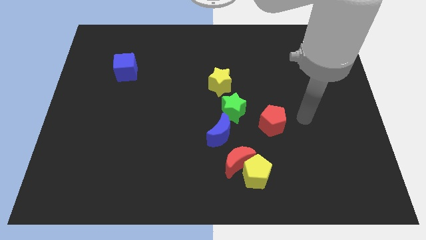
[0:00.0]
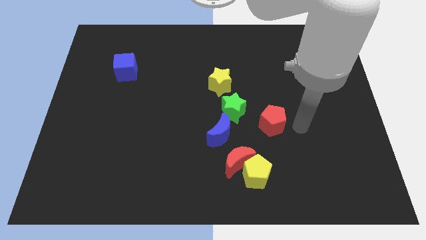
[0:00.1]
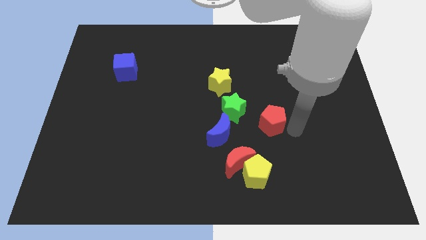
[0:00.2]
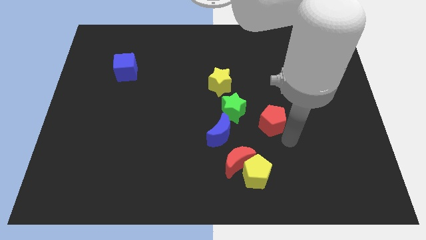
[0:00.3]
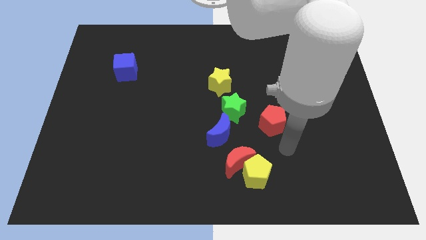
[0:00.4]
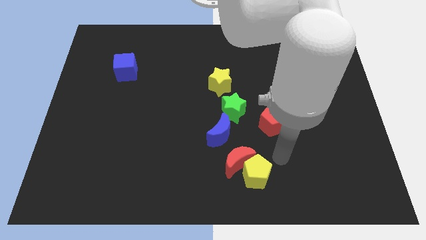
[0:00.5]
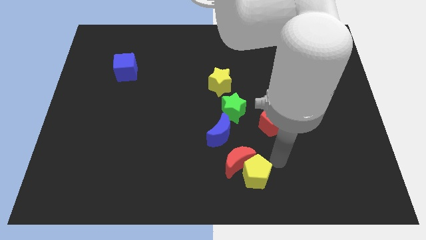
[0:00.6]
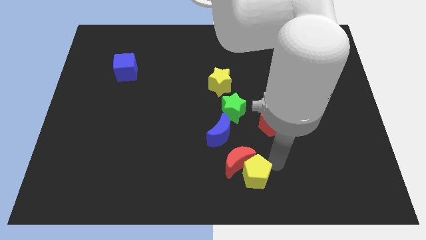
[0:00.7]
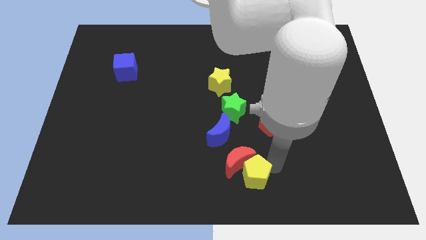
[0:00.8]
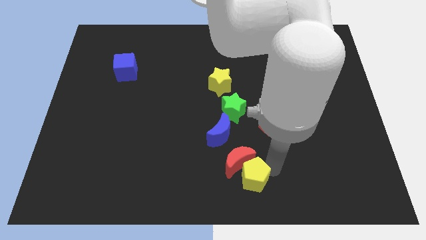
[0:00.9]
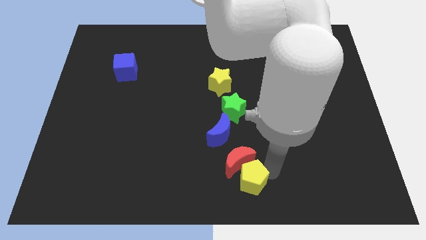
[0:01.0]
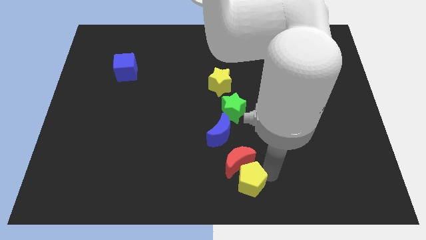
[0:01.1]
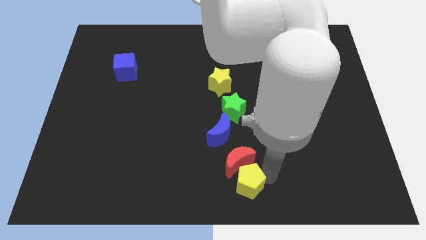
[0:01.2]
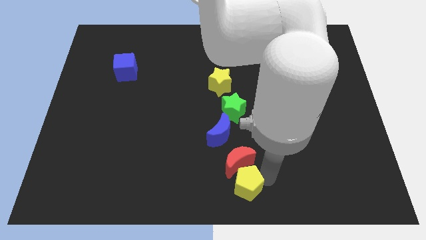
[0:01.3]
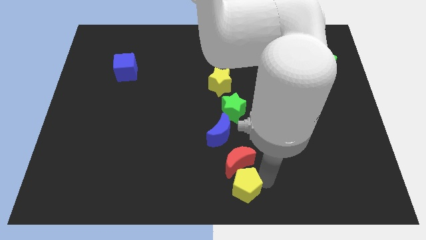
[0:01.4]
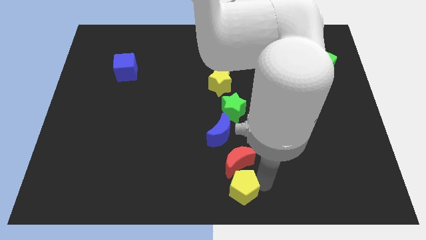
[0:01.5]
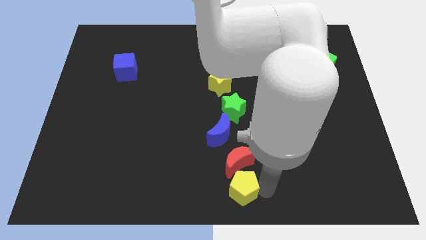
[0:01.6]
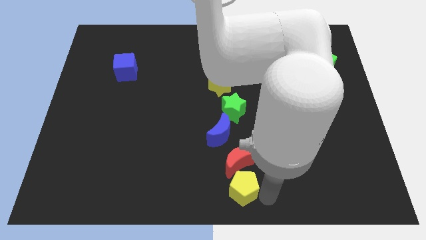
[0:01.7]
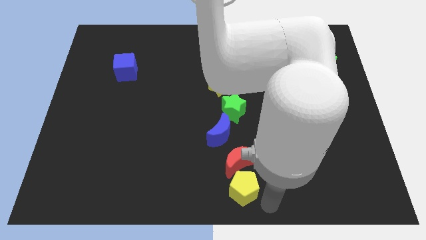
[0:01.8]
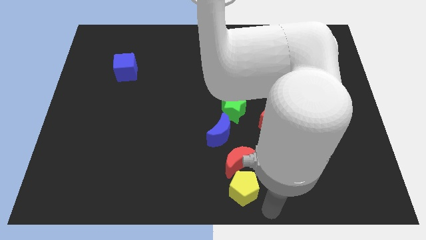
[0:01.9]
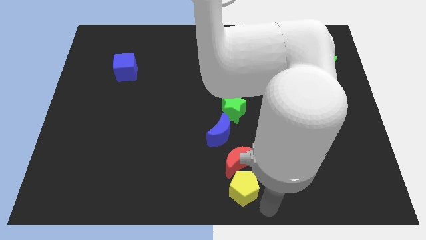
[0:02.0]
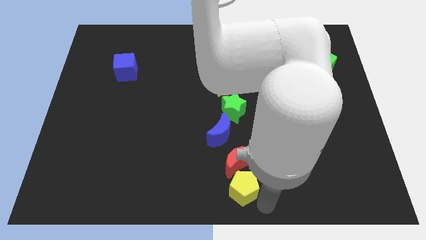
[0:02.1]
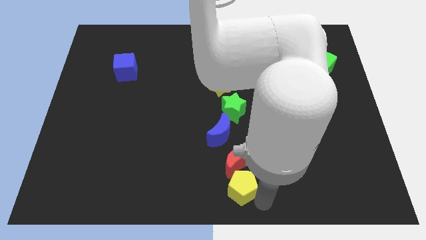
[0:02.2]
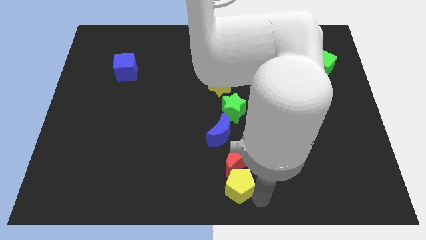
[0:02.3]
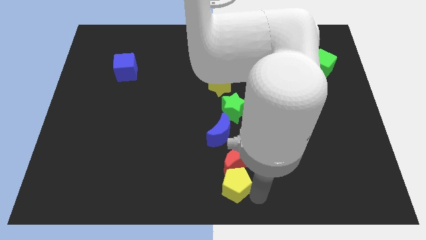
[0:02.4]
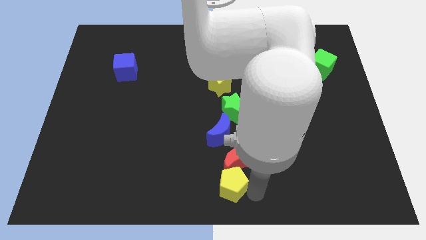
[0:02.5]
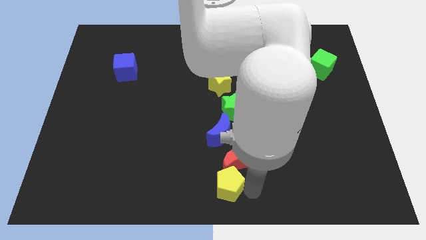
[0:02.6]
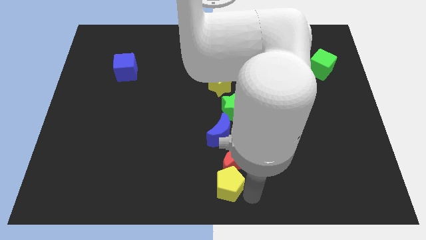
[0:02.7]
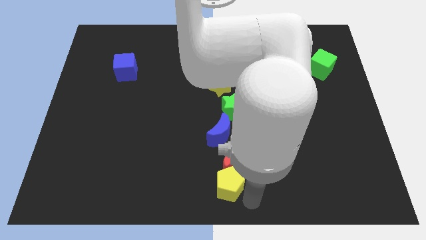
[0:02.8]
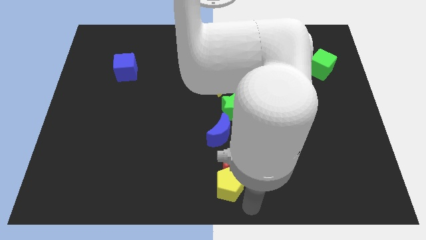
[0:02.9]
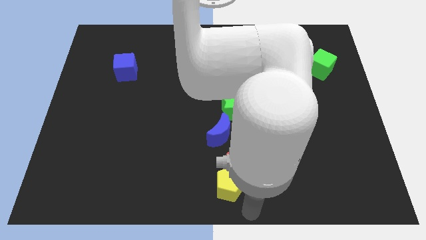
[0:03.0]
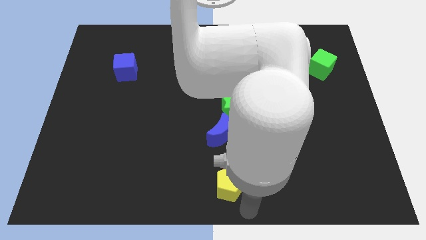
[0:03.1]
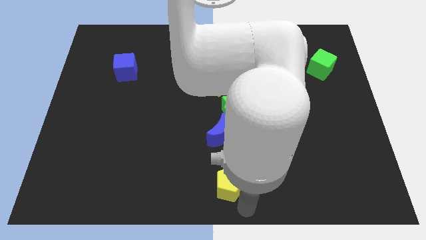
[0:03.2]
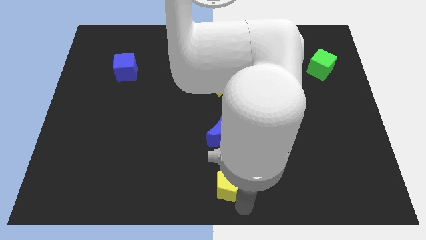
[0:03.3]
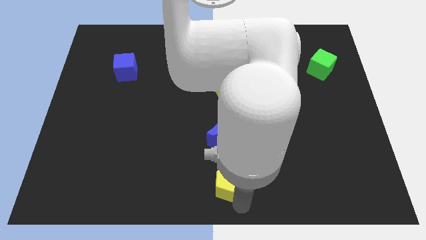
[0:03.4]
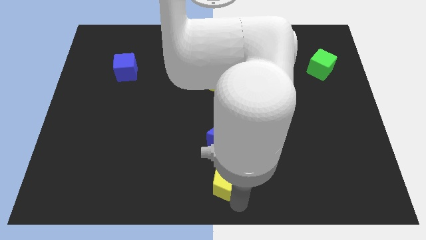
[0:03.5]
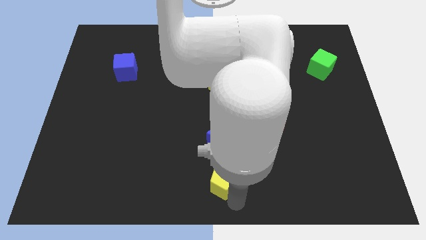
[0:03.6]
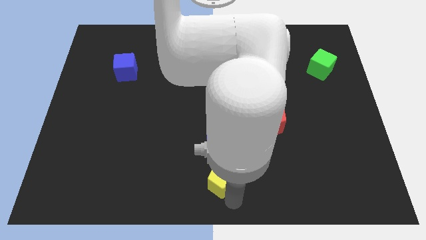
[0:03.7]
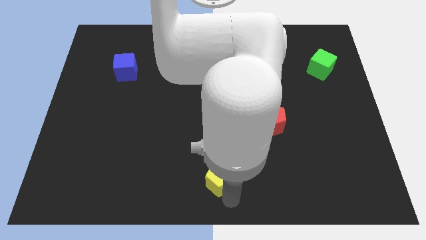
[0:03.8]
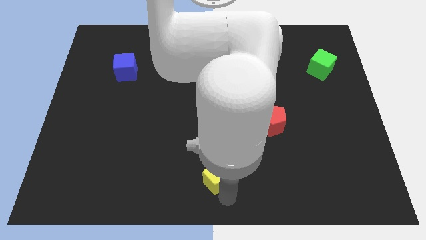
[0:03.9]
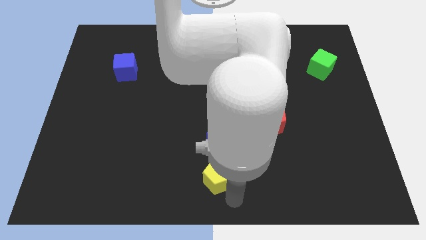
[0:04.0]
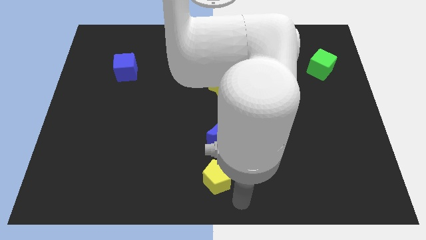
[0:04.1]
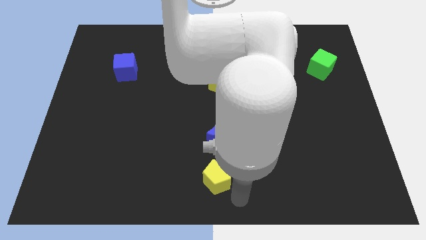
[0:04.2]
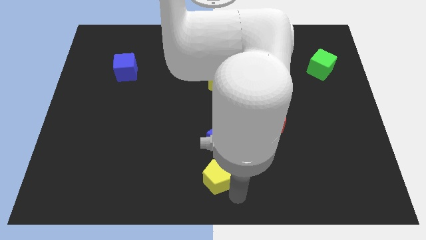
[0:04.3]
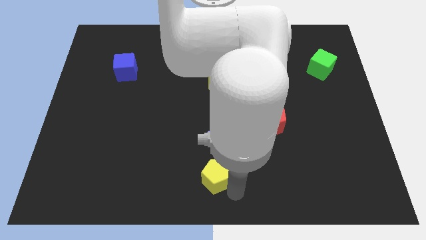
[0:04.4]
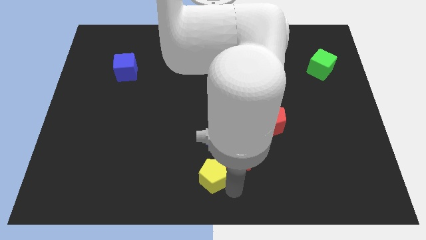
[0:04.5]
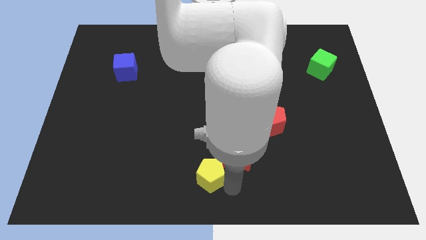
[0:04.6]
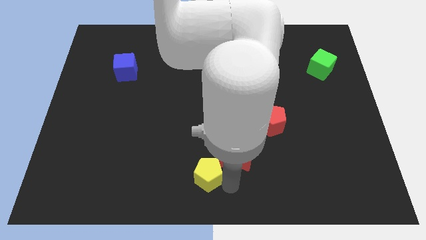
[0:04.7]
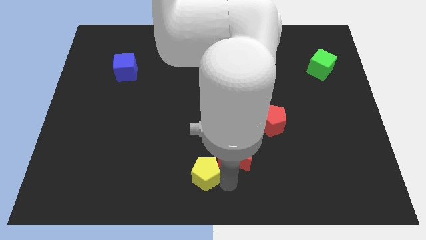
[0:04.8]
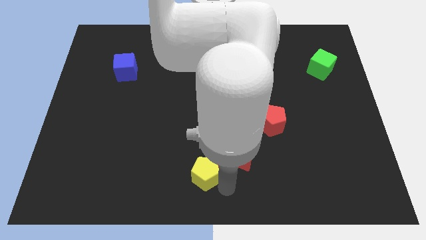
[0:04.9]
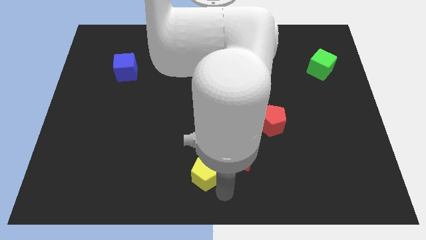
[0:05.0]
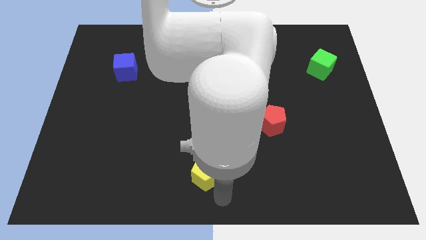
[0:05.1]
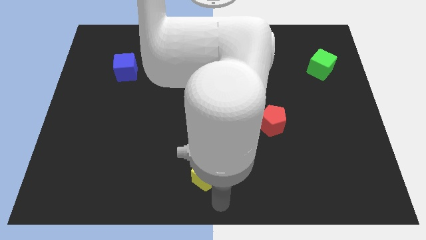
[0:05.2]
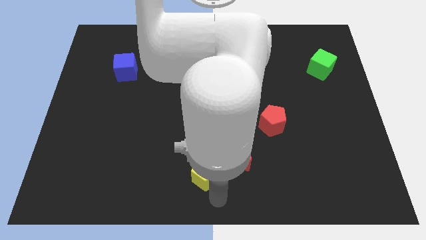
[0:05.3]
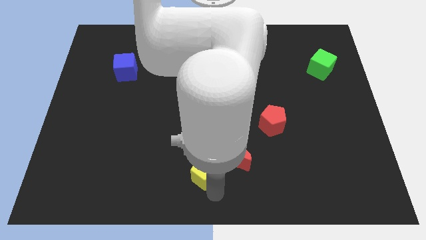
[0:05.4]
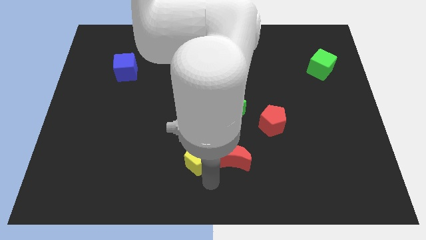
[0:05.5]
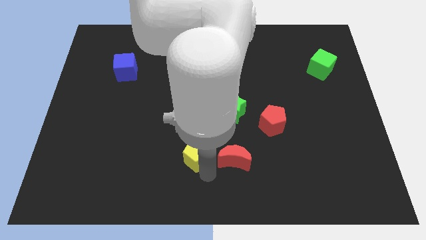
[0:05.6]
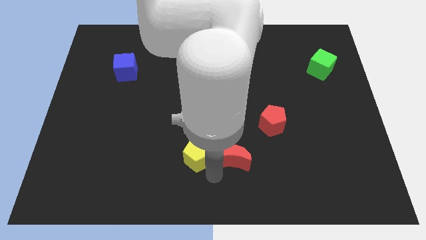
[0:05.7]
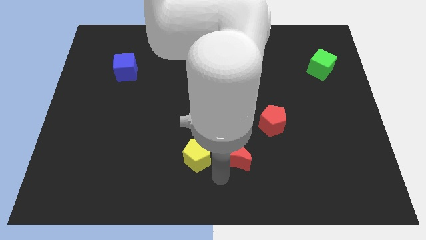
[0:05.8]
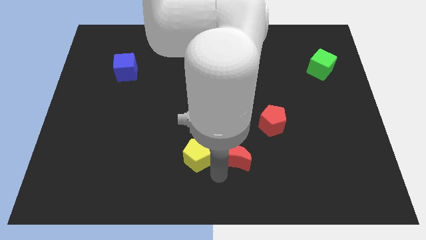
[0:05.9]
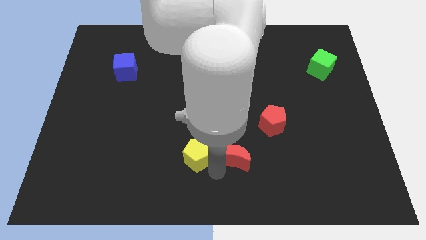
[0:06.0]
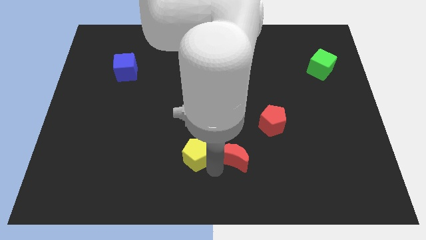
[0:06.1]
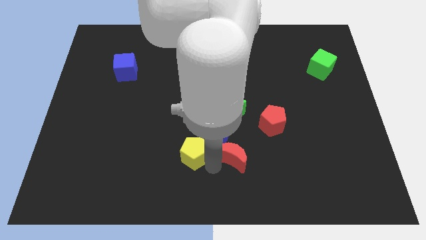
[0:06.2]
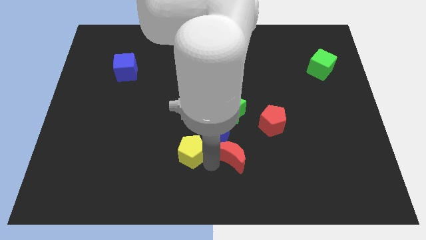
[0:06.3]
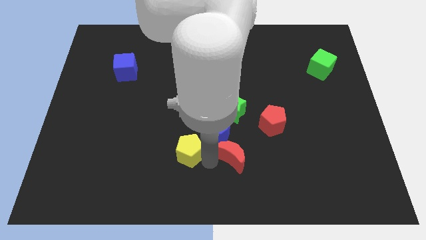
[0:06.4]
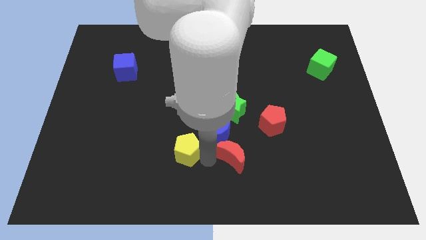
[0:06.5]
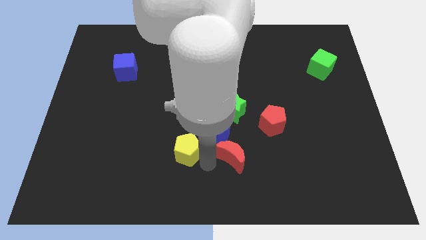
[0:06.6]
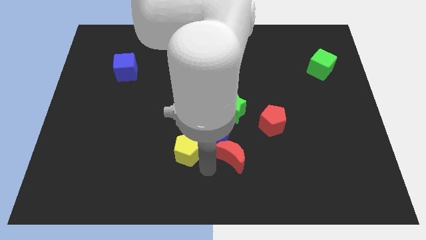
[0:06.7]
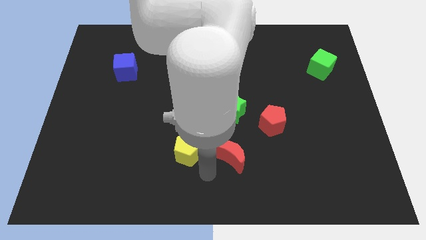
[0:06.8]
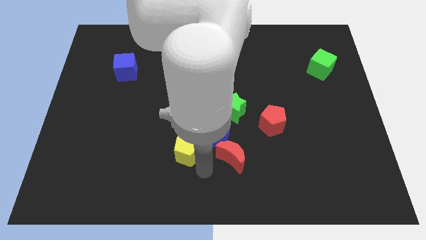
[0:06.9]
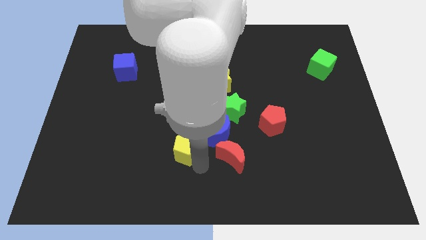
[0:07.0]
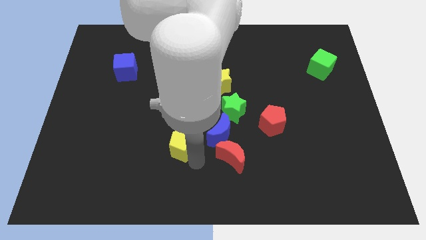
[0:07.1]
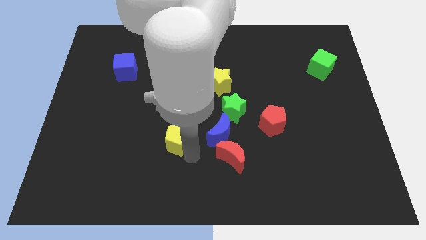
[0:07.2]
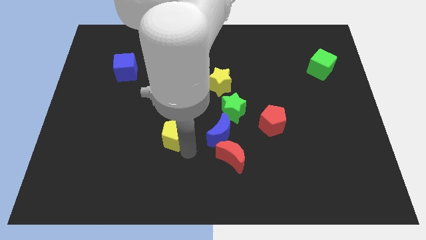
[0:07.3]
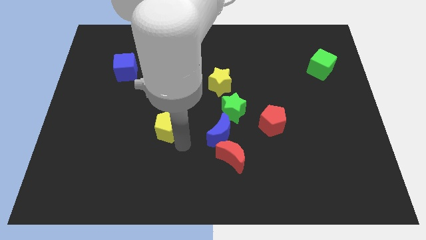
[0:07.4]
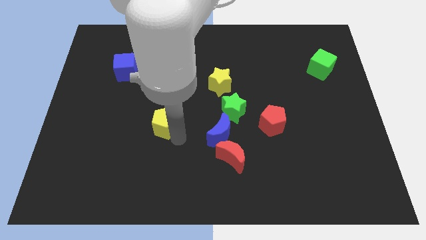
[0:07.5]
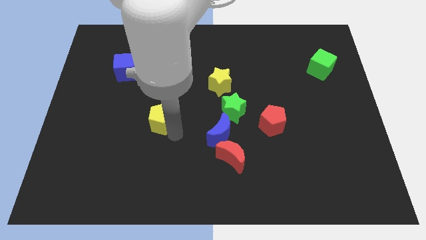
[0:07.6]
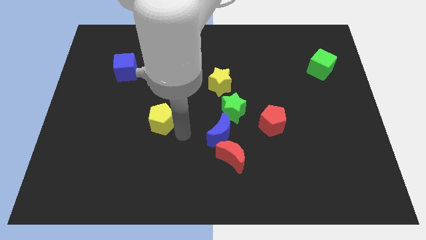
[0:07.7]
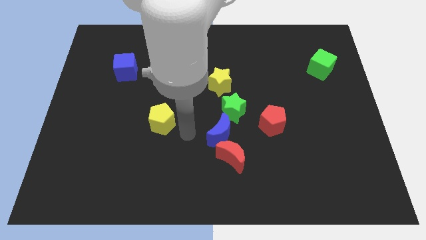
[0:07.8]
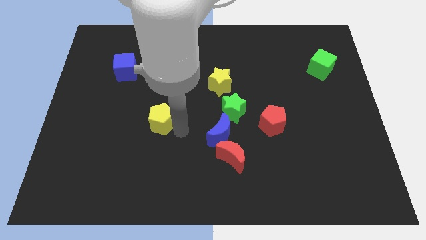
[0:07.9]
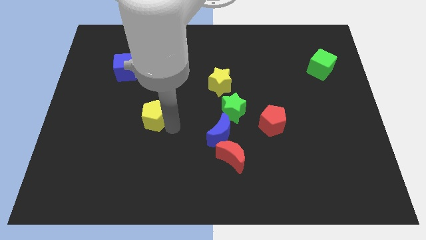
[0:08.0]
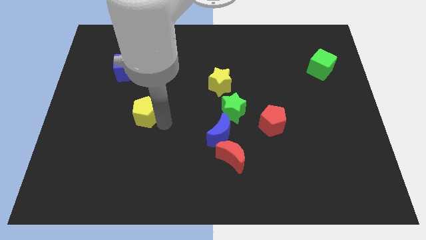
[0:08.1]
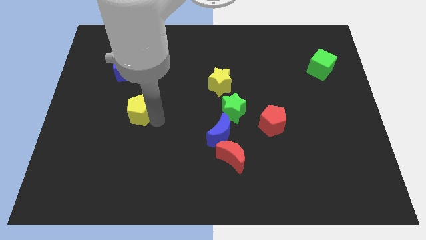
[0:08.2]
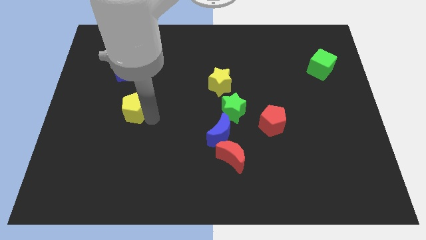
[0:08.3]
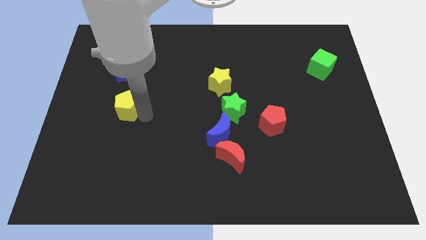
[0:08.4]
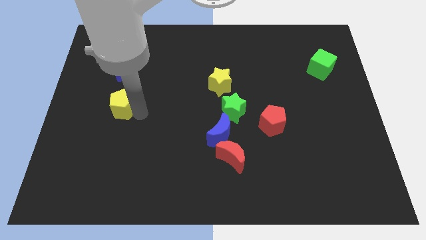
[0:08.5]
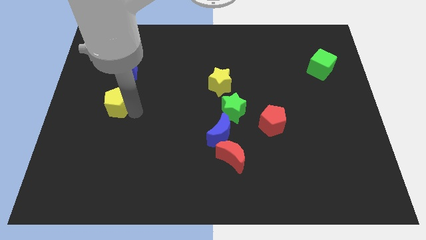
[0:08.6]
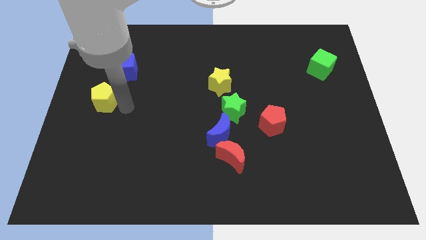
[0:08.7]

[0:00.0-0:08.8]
slide the yellow pentagon to the center left
